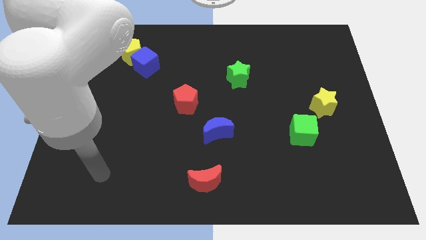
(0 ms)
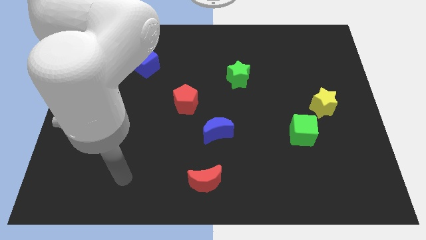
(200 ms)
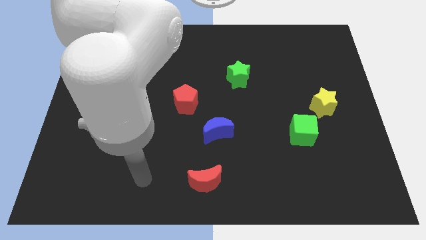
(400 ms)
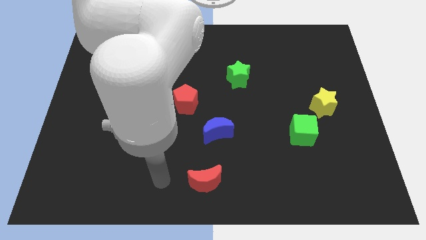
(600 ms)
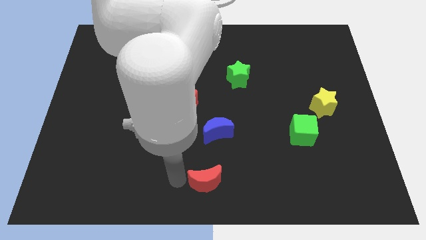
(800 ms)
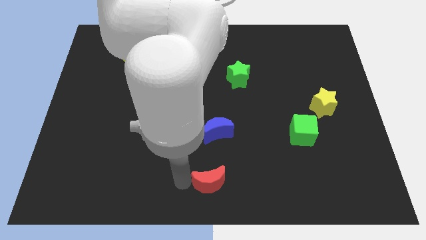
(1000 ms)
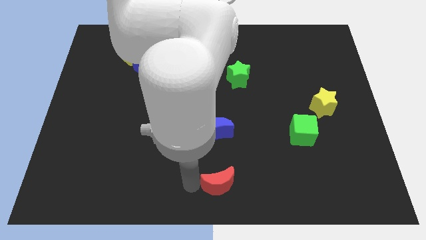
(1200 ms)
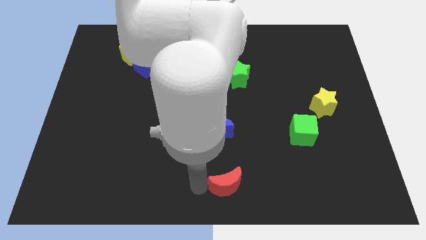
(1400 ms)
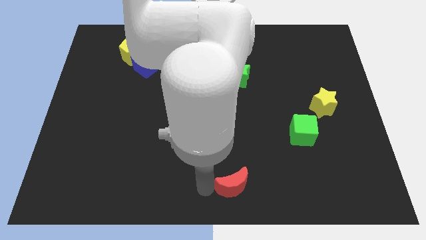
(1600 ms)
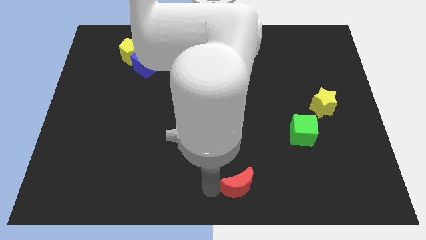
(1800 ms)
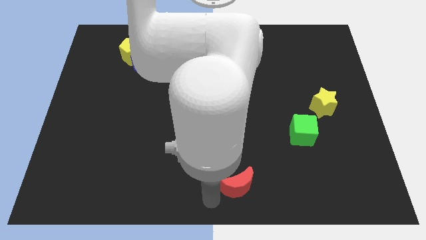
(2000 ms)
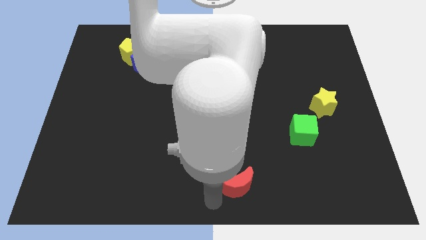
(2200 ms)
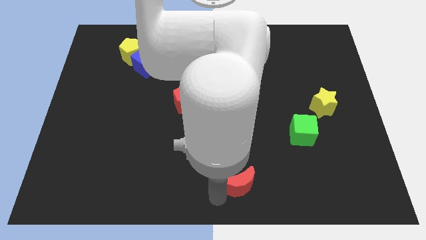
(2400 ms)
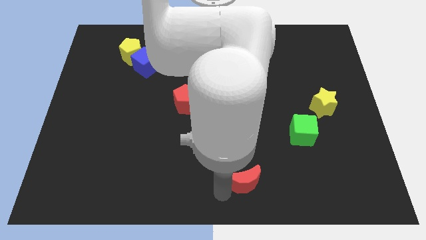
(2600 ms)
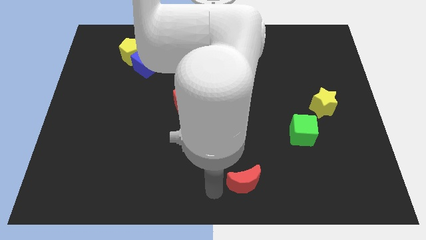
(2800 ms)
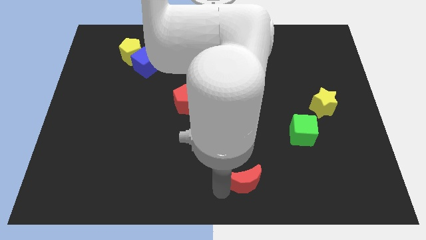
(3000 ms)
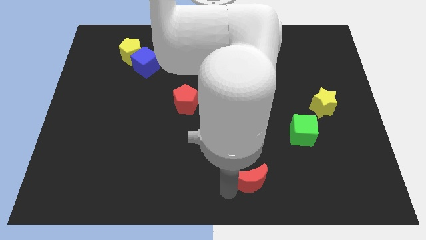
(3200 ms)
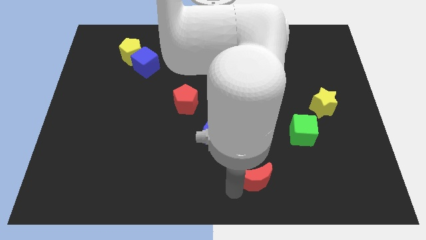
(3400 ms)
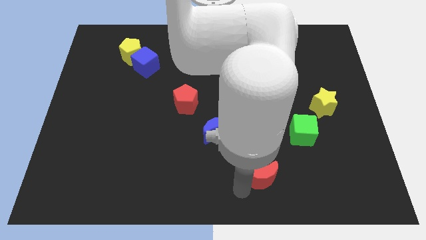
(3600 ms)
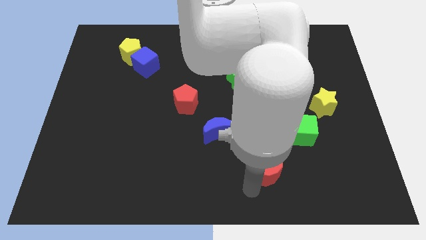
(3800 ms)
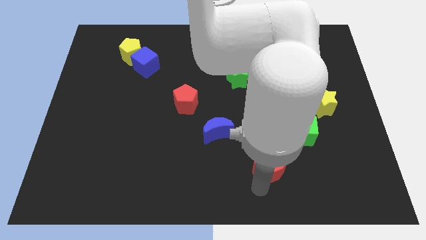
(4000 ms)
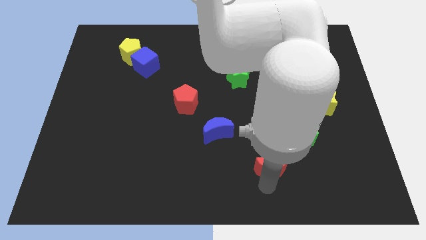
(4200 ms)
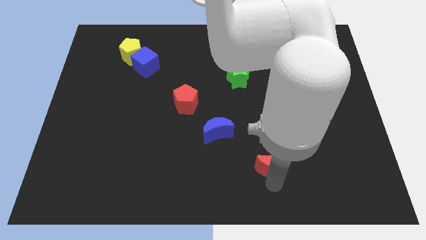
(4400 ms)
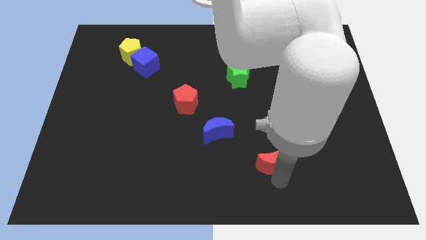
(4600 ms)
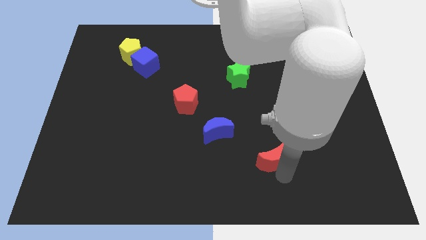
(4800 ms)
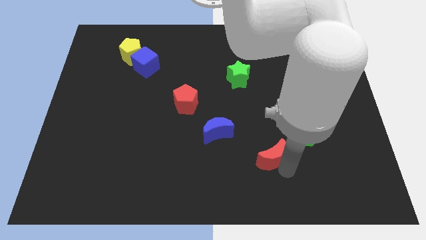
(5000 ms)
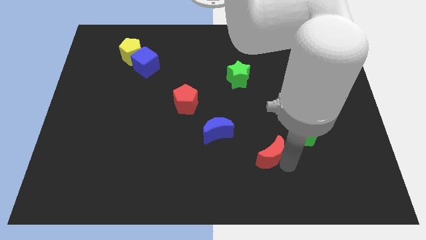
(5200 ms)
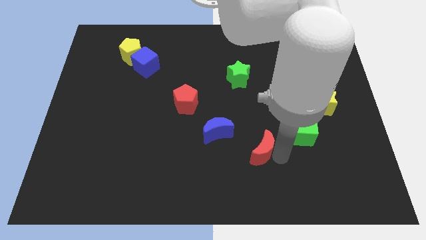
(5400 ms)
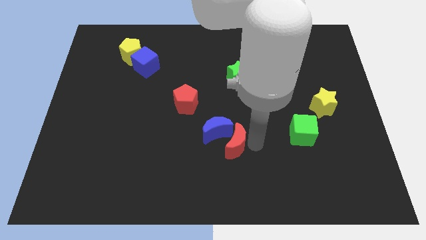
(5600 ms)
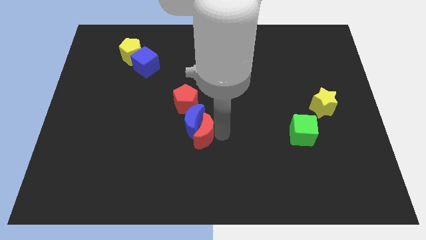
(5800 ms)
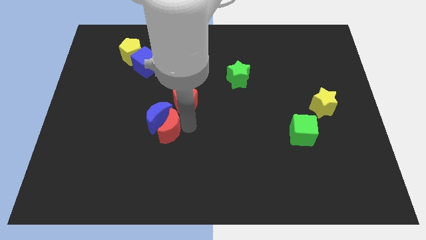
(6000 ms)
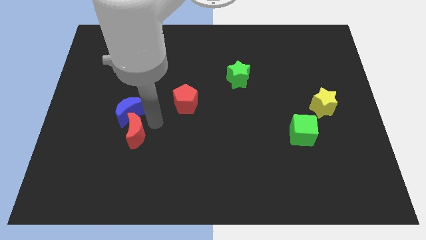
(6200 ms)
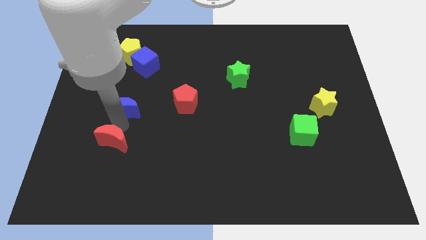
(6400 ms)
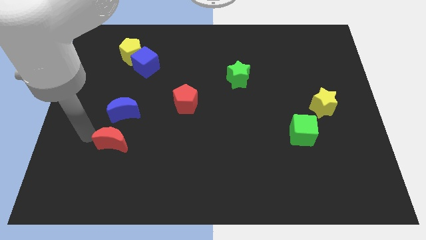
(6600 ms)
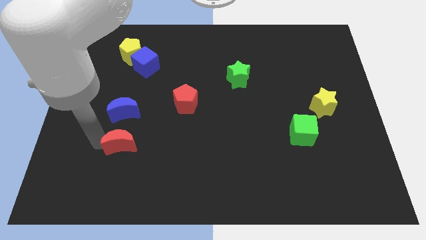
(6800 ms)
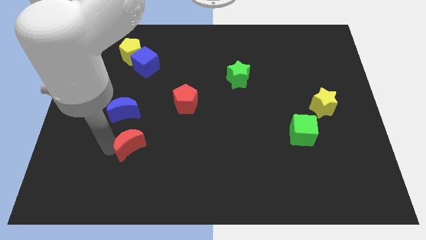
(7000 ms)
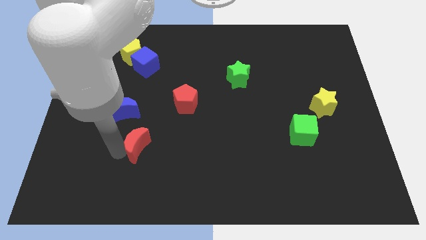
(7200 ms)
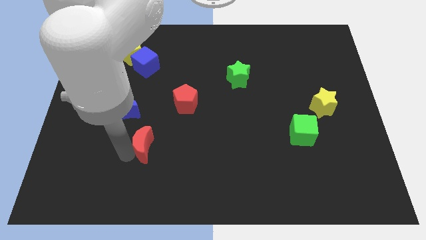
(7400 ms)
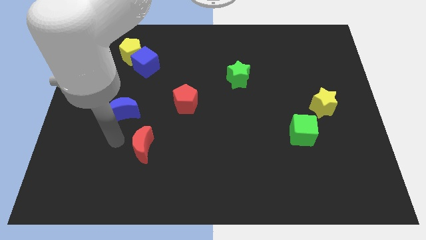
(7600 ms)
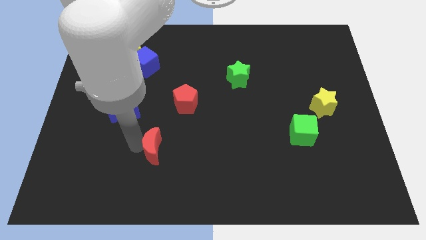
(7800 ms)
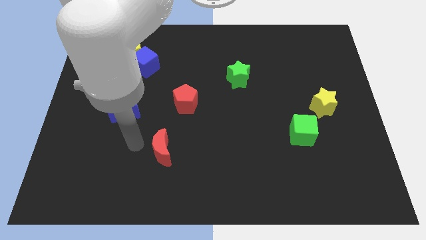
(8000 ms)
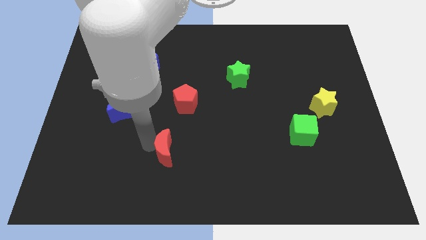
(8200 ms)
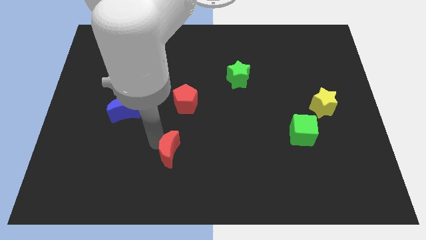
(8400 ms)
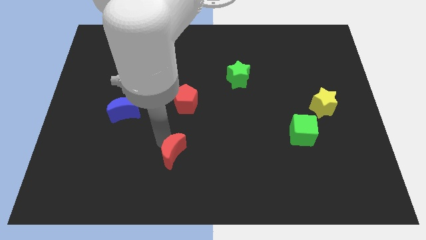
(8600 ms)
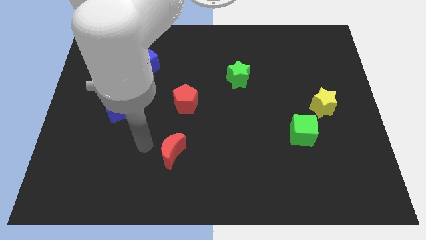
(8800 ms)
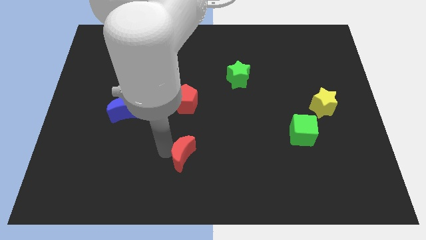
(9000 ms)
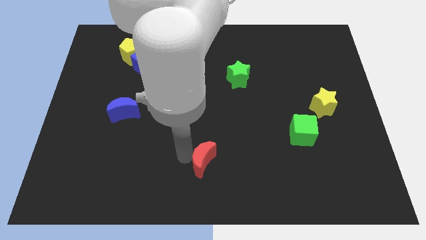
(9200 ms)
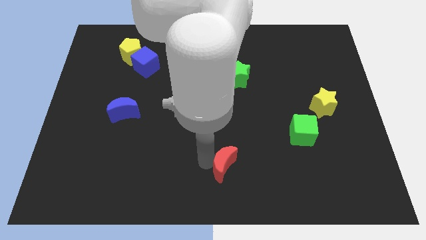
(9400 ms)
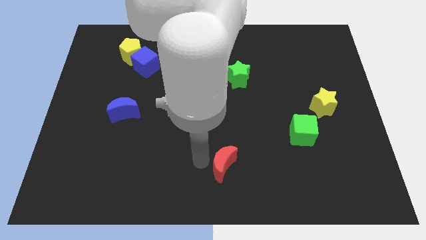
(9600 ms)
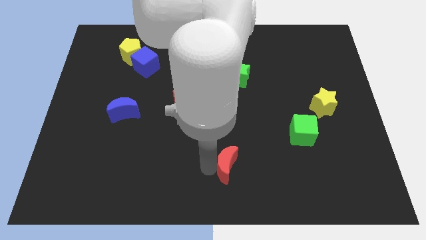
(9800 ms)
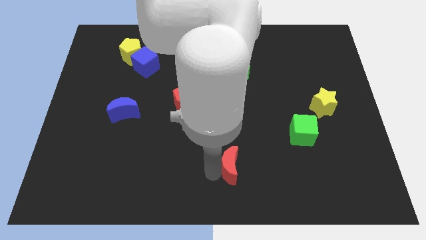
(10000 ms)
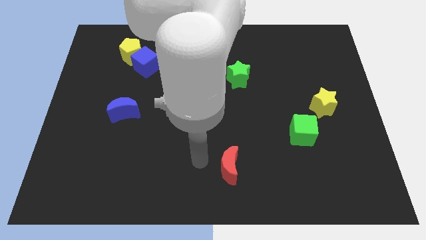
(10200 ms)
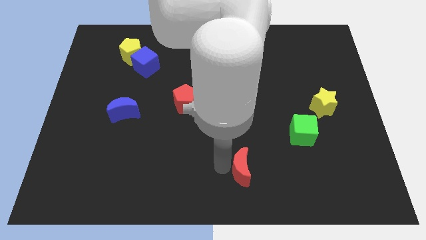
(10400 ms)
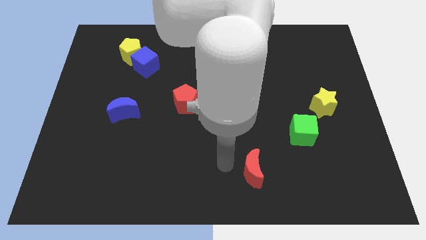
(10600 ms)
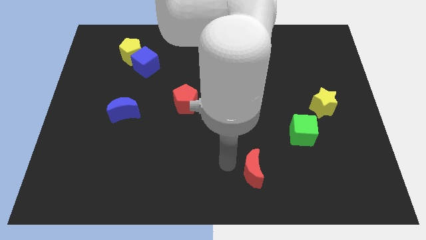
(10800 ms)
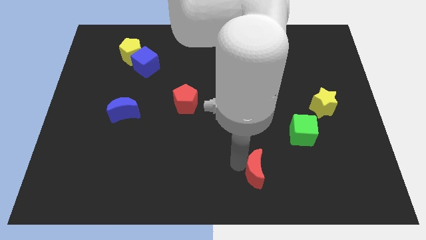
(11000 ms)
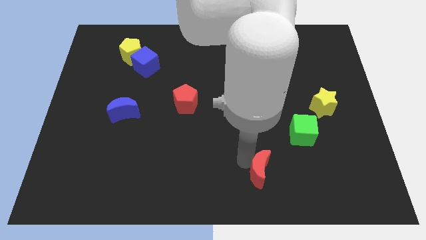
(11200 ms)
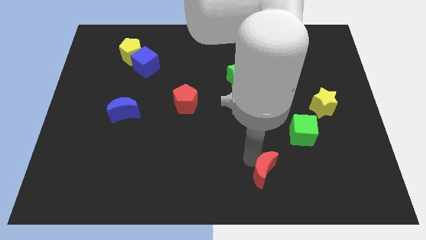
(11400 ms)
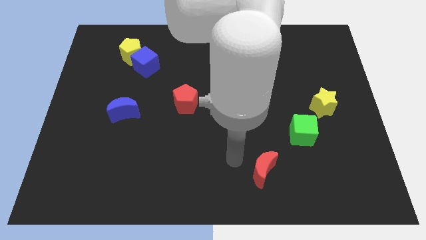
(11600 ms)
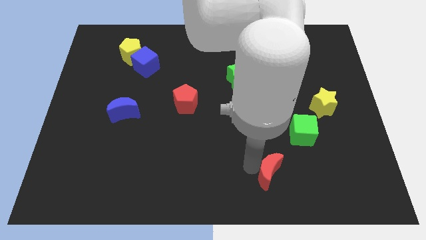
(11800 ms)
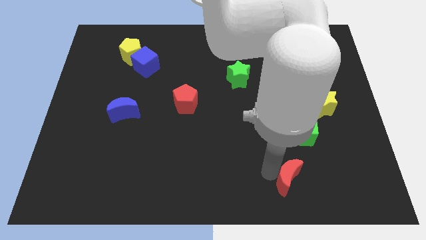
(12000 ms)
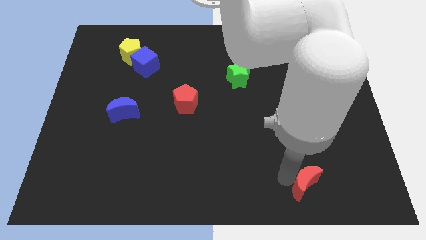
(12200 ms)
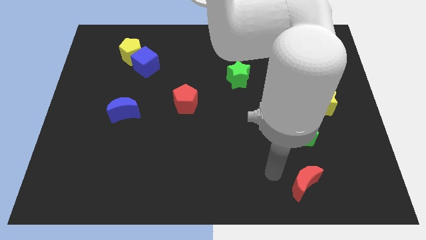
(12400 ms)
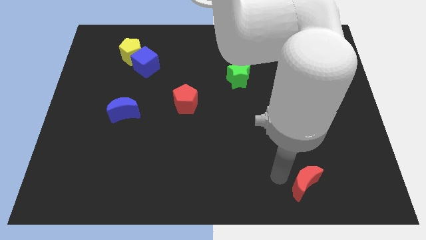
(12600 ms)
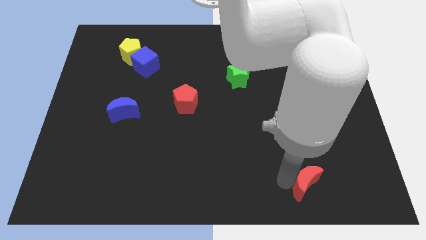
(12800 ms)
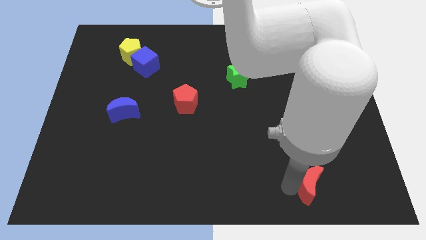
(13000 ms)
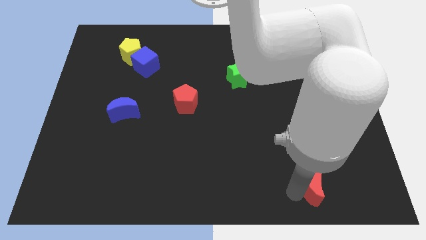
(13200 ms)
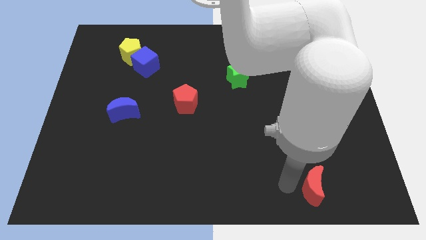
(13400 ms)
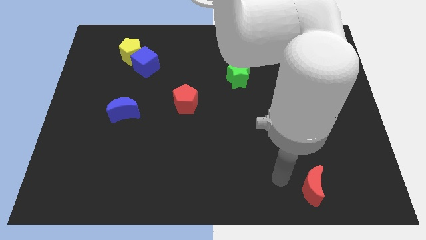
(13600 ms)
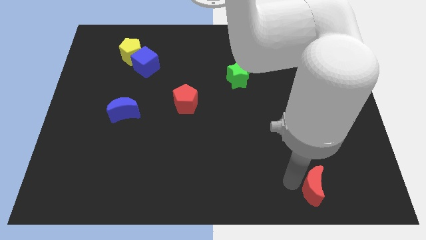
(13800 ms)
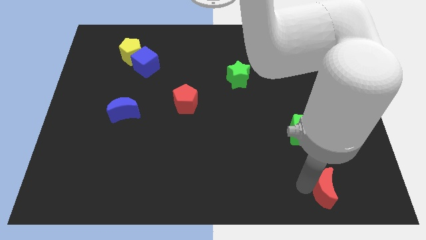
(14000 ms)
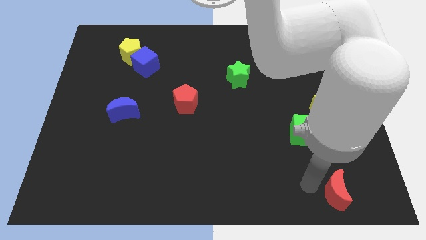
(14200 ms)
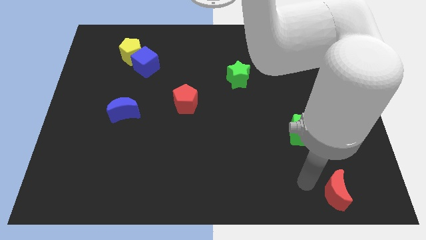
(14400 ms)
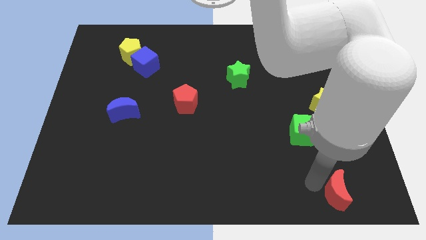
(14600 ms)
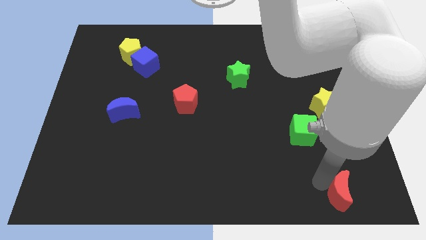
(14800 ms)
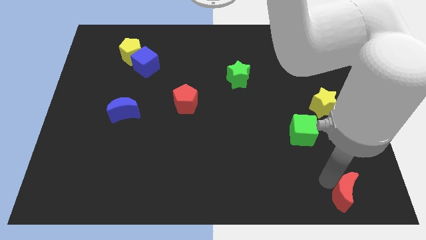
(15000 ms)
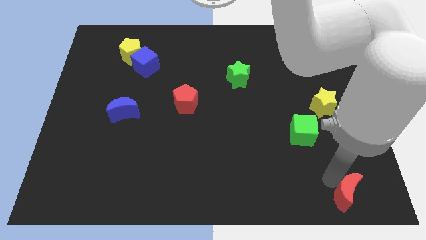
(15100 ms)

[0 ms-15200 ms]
put the red moon to the bottom right of the board
